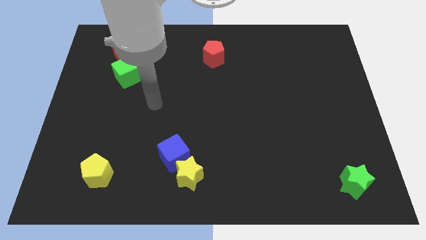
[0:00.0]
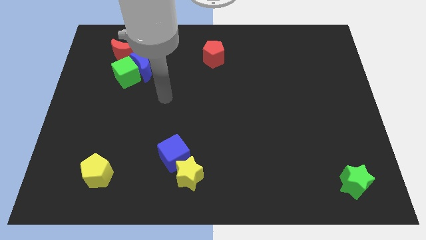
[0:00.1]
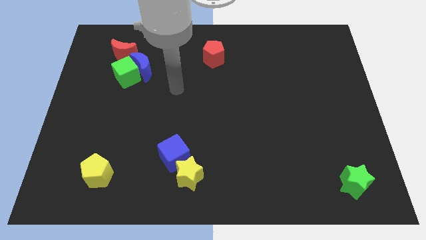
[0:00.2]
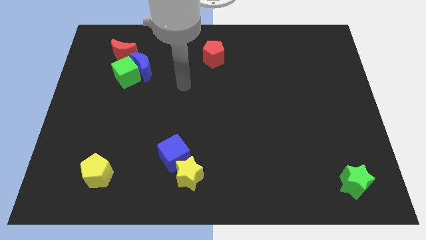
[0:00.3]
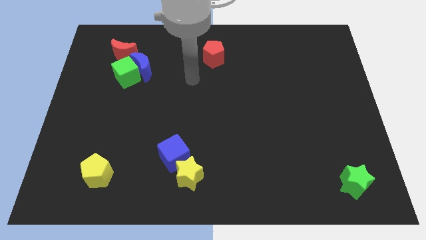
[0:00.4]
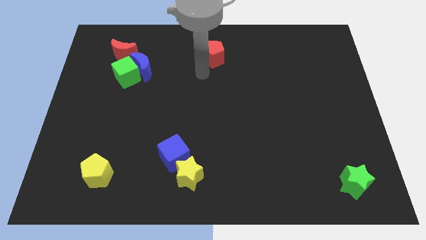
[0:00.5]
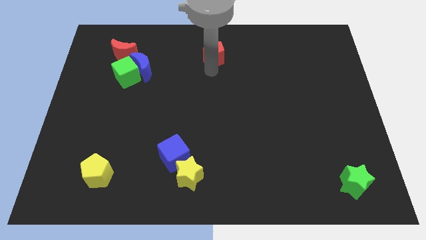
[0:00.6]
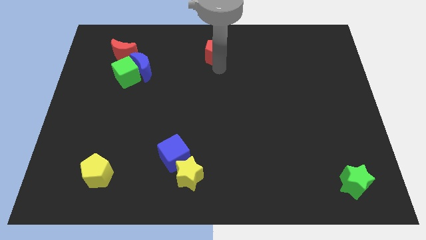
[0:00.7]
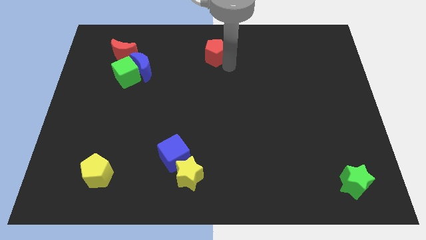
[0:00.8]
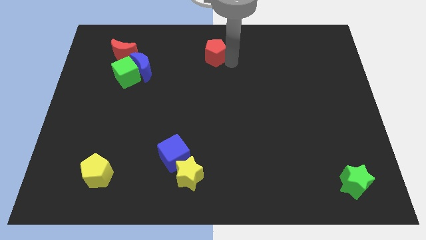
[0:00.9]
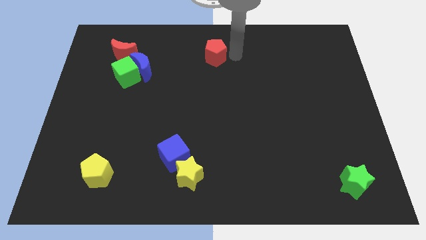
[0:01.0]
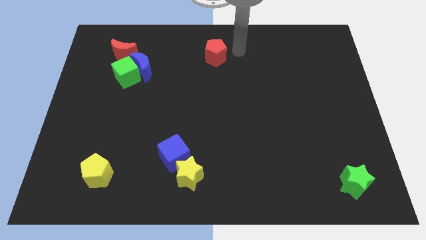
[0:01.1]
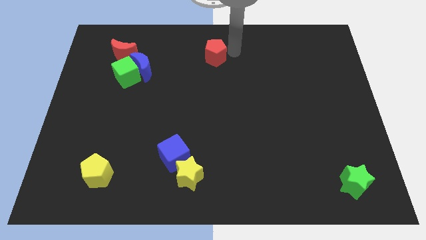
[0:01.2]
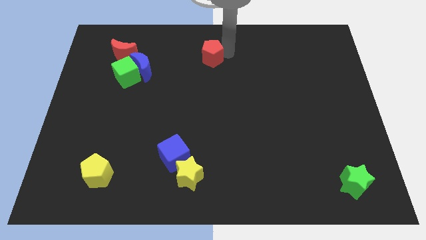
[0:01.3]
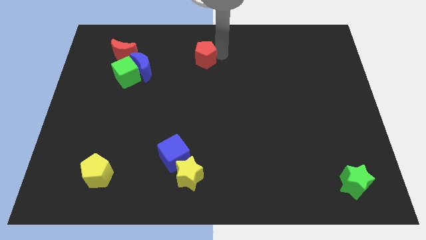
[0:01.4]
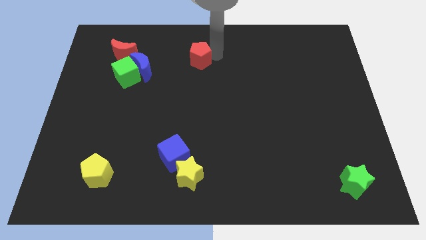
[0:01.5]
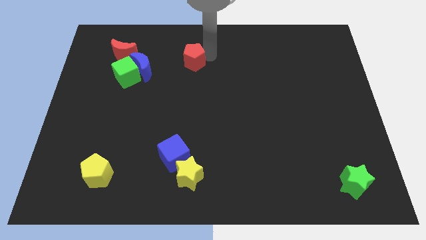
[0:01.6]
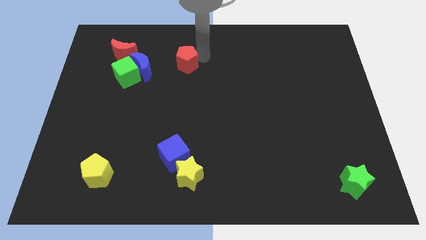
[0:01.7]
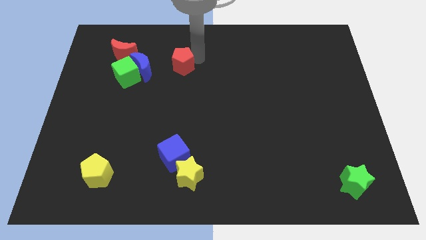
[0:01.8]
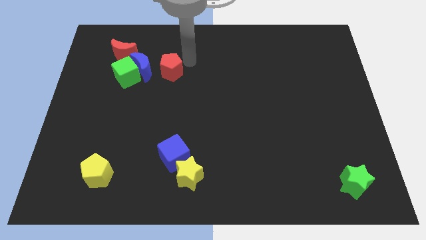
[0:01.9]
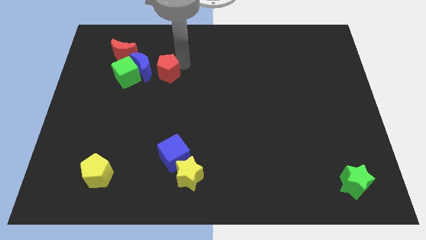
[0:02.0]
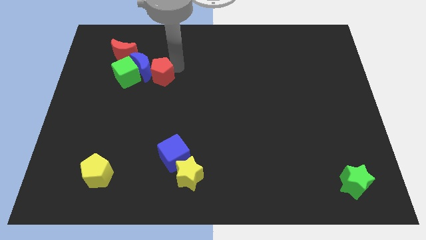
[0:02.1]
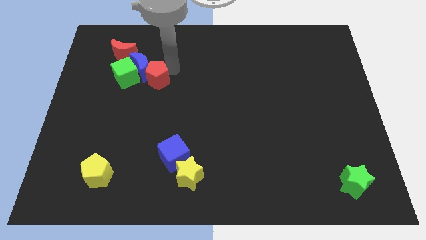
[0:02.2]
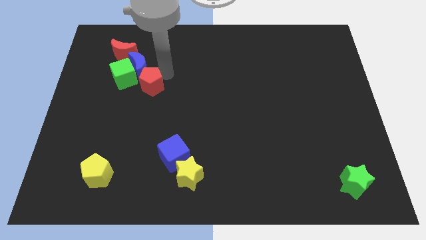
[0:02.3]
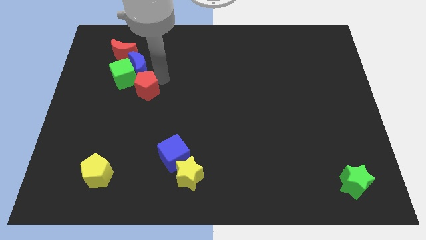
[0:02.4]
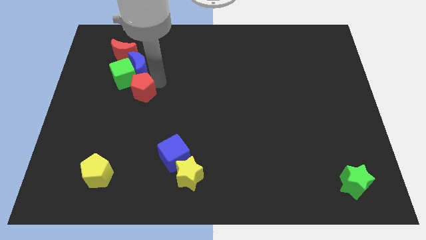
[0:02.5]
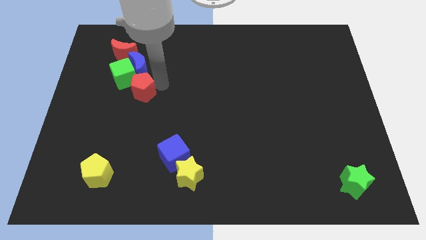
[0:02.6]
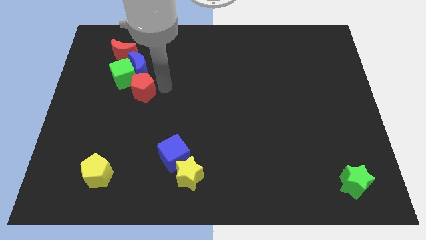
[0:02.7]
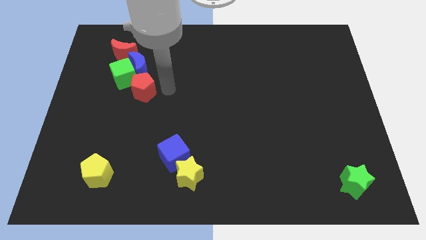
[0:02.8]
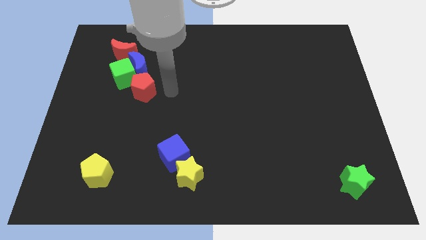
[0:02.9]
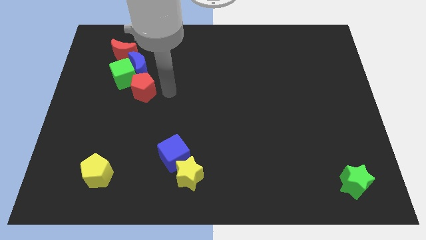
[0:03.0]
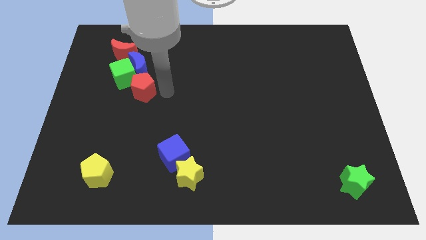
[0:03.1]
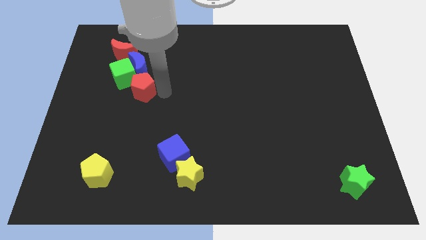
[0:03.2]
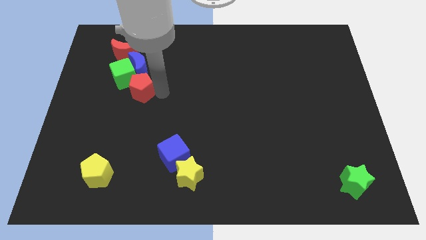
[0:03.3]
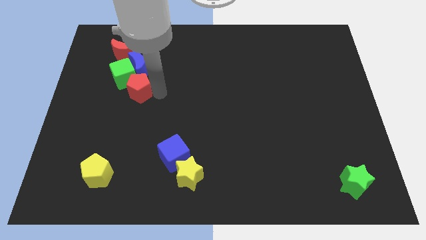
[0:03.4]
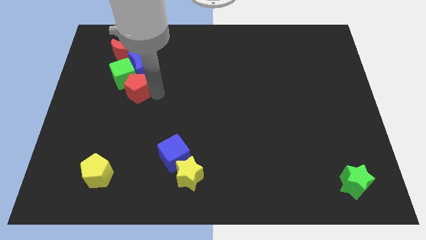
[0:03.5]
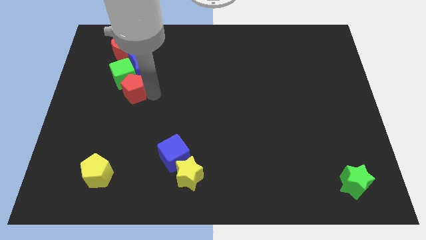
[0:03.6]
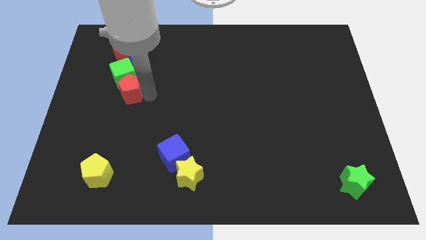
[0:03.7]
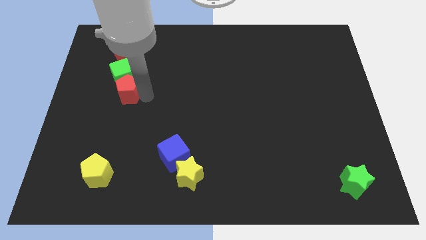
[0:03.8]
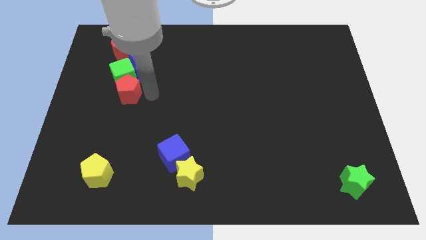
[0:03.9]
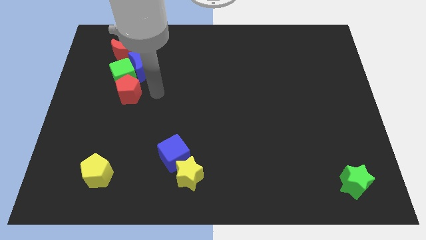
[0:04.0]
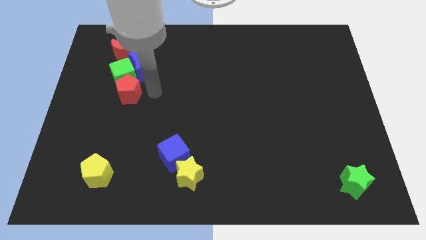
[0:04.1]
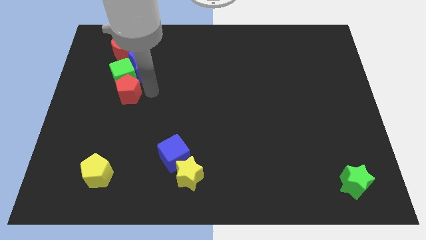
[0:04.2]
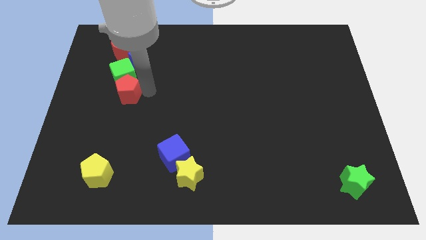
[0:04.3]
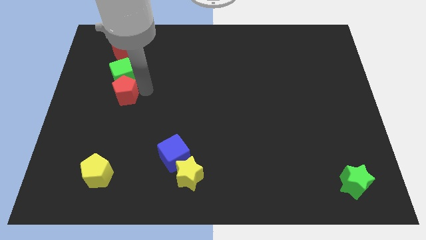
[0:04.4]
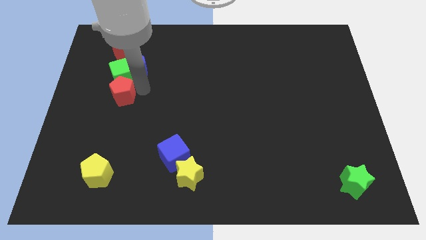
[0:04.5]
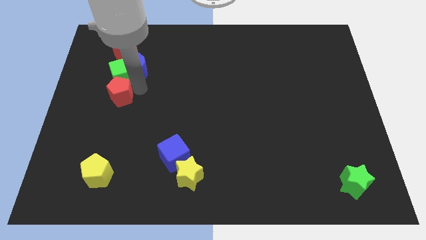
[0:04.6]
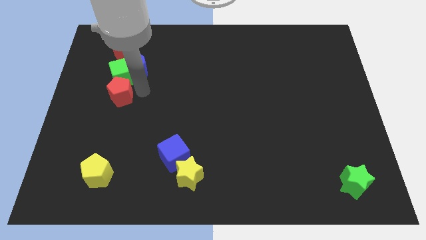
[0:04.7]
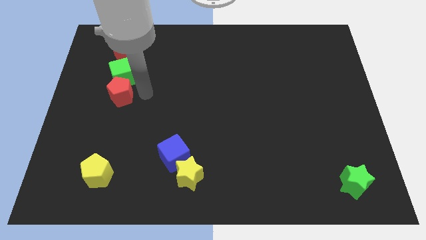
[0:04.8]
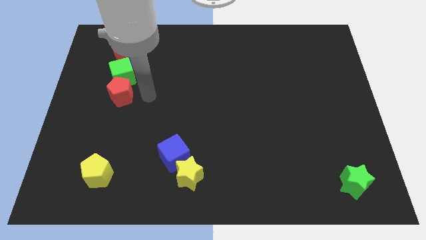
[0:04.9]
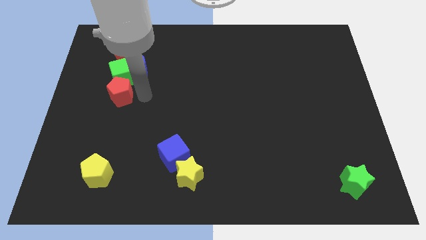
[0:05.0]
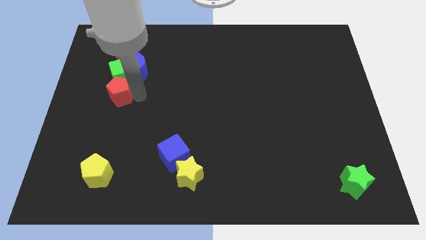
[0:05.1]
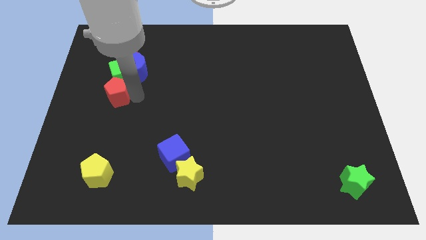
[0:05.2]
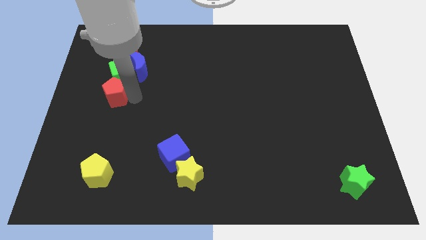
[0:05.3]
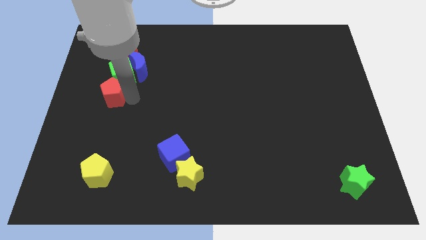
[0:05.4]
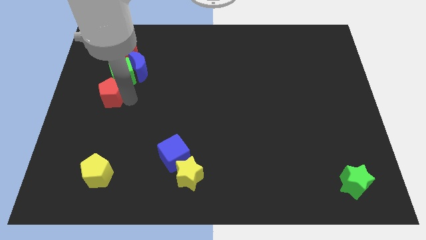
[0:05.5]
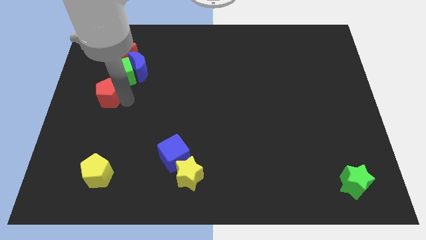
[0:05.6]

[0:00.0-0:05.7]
slide the red pentagon to the left side of the board

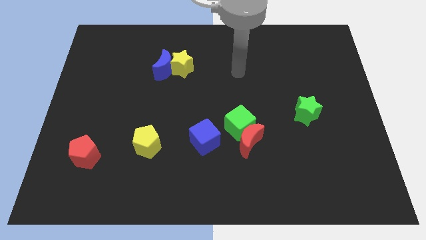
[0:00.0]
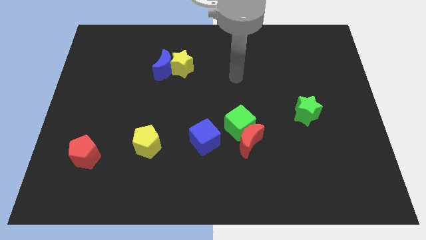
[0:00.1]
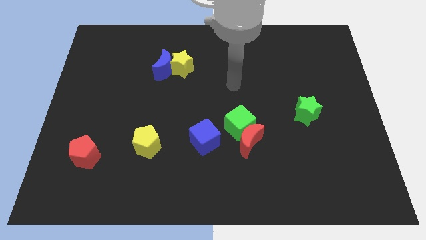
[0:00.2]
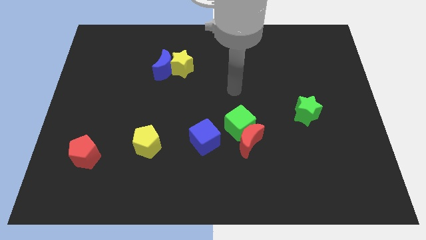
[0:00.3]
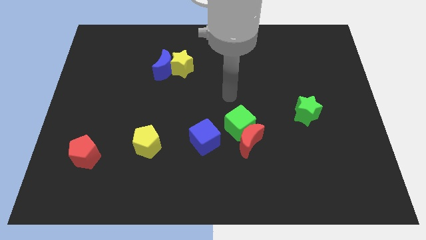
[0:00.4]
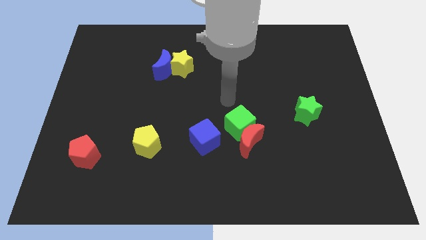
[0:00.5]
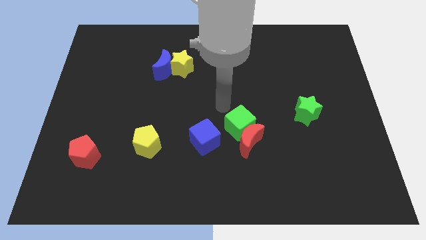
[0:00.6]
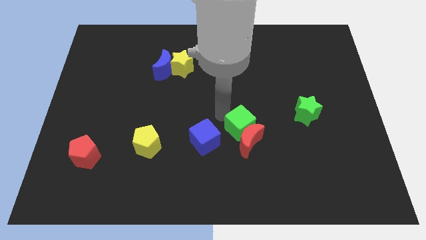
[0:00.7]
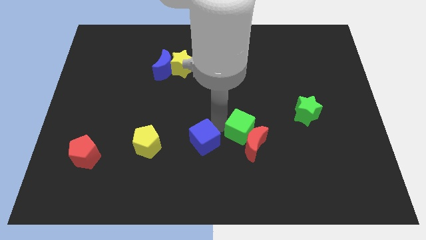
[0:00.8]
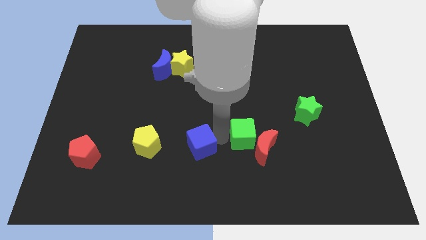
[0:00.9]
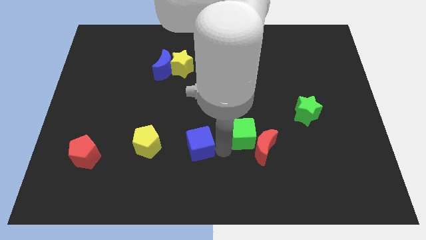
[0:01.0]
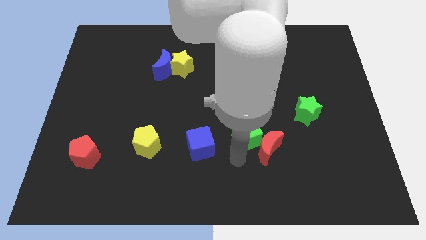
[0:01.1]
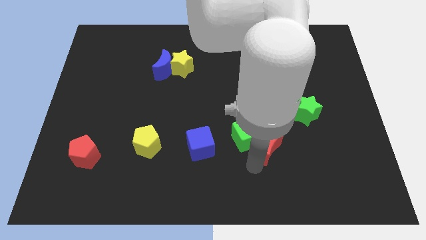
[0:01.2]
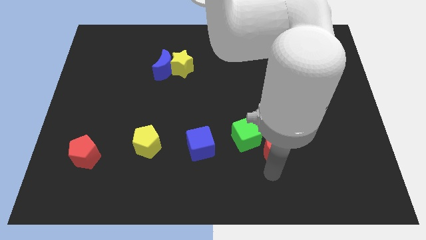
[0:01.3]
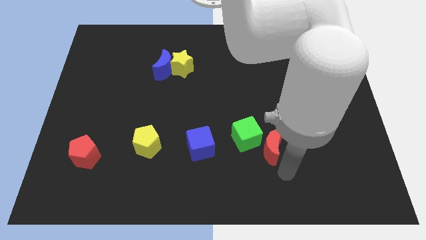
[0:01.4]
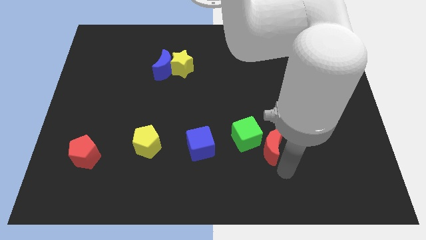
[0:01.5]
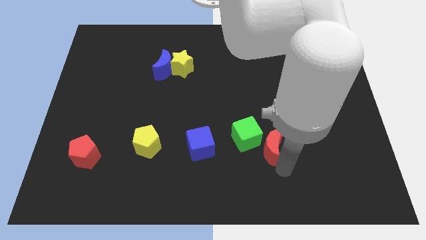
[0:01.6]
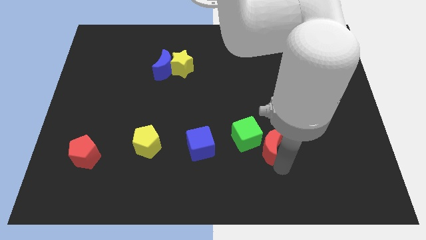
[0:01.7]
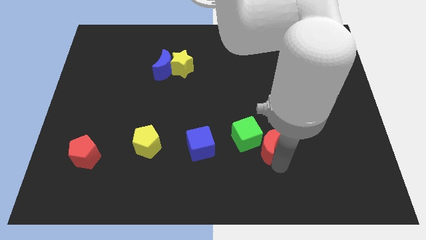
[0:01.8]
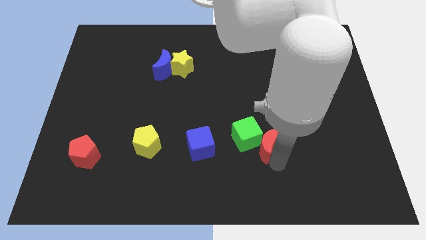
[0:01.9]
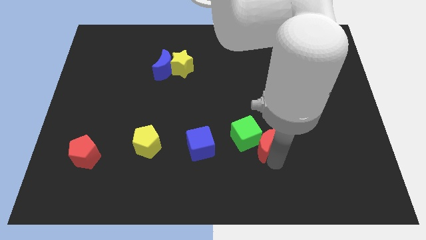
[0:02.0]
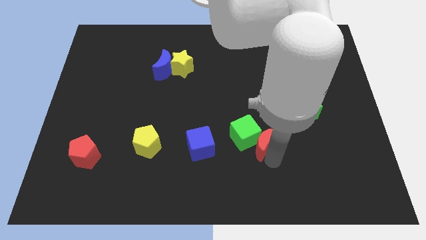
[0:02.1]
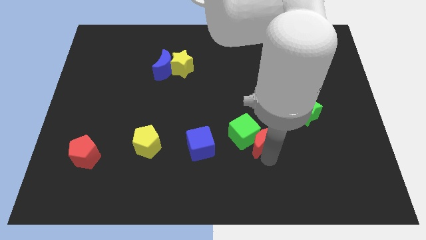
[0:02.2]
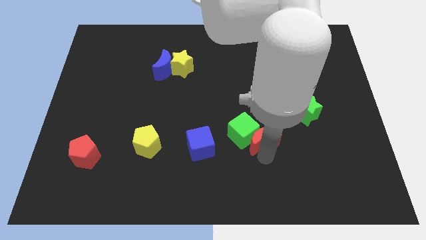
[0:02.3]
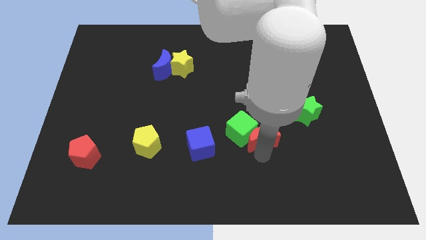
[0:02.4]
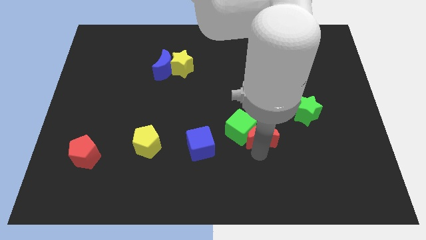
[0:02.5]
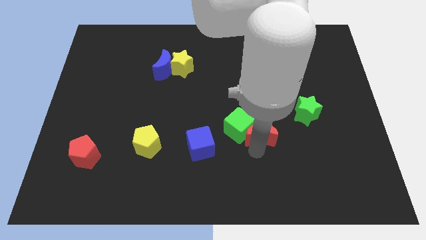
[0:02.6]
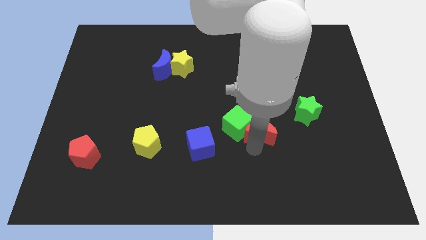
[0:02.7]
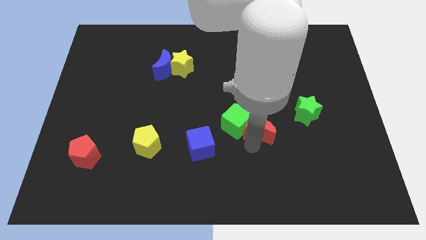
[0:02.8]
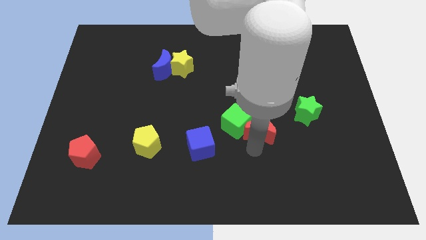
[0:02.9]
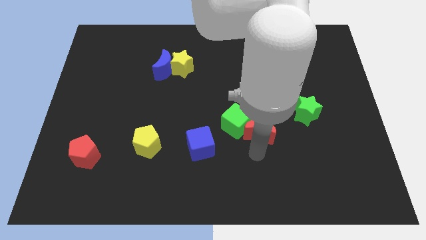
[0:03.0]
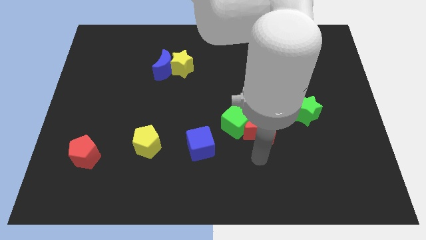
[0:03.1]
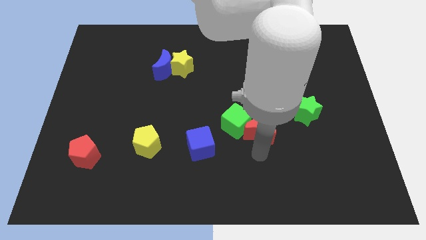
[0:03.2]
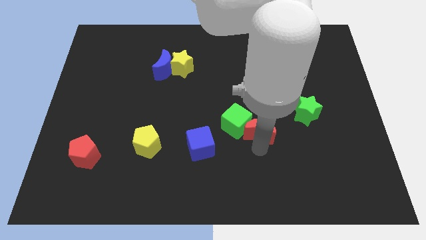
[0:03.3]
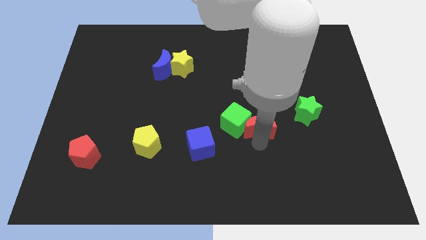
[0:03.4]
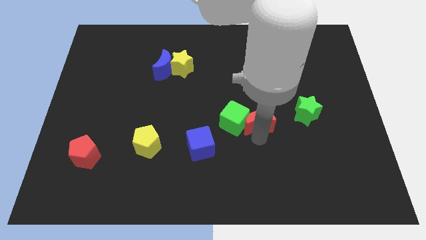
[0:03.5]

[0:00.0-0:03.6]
slide the red moon to the middle of the board
